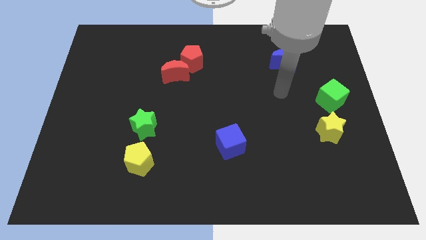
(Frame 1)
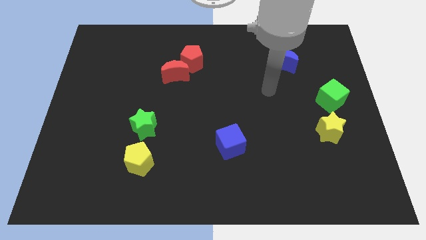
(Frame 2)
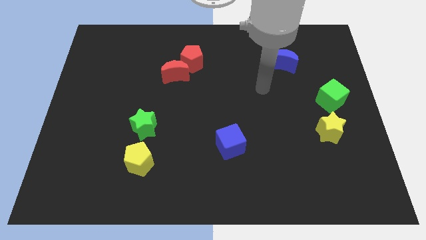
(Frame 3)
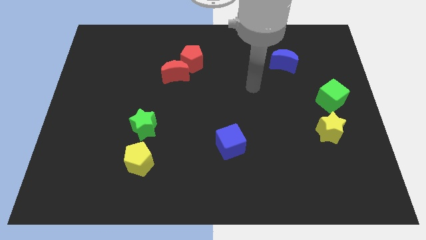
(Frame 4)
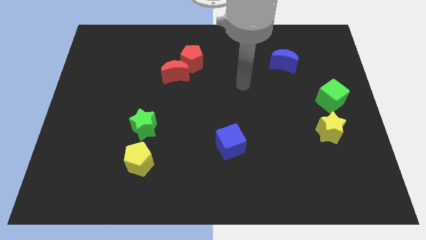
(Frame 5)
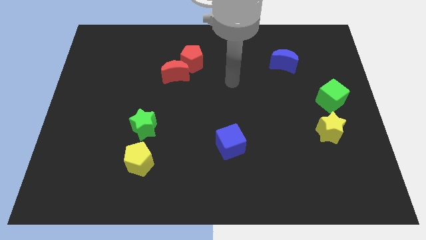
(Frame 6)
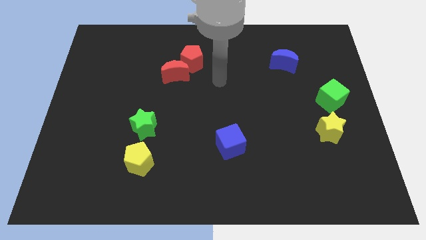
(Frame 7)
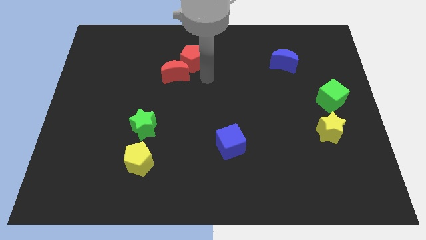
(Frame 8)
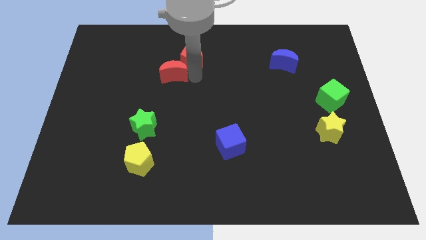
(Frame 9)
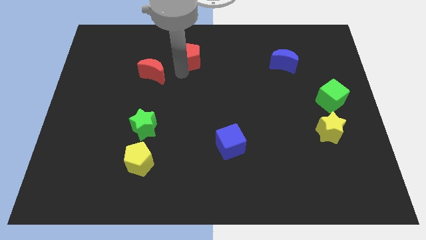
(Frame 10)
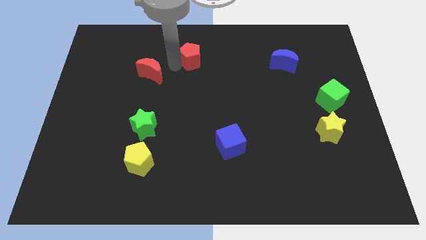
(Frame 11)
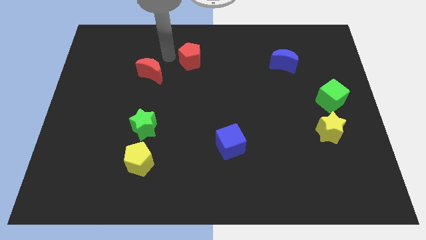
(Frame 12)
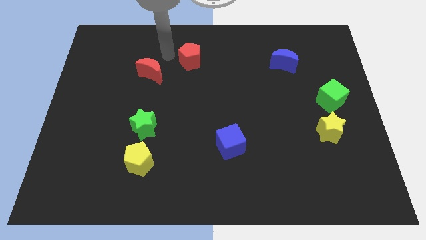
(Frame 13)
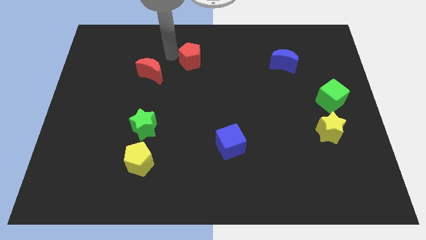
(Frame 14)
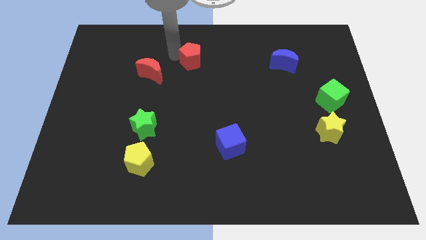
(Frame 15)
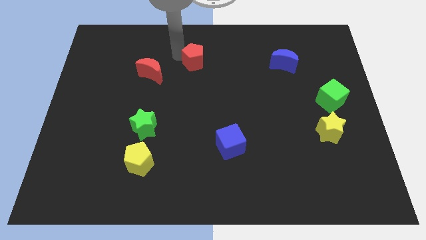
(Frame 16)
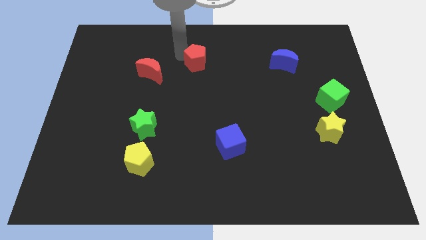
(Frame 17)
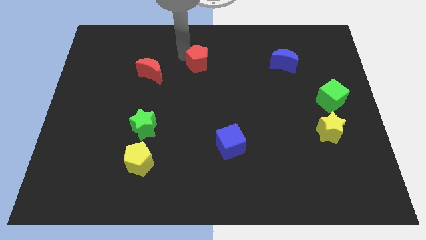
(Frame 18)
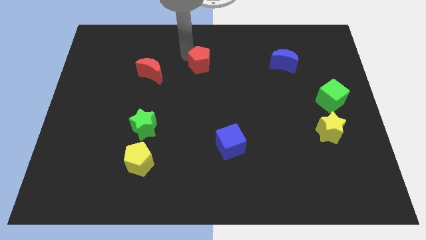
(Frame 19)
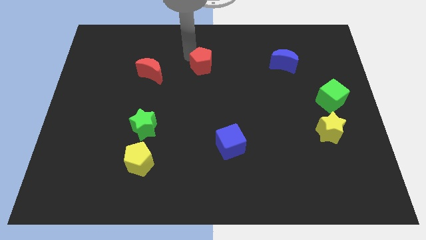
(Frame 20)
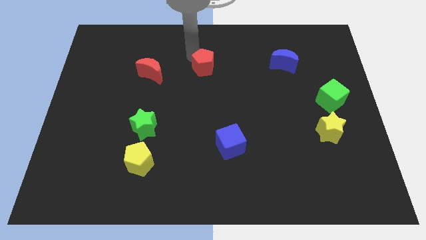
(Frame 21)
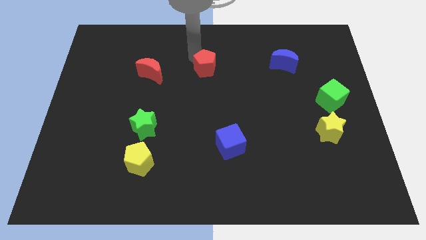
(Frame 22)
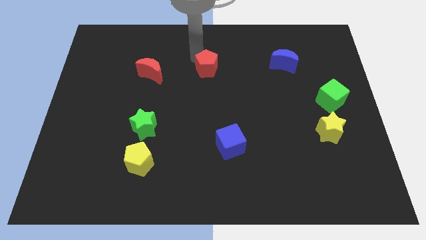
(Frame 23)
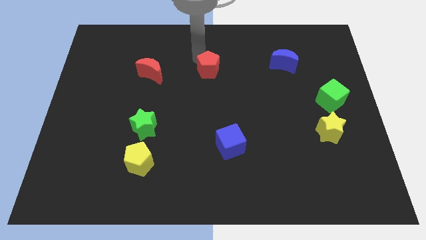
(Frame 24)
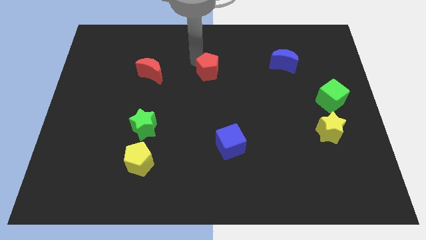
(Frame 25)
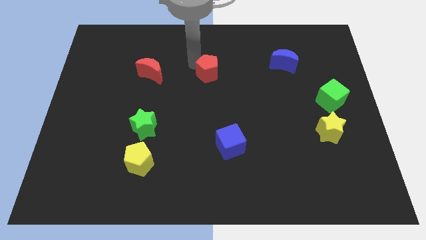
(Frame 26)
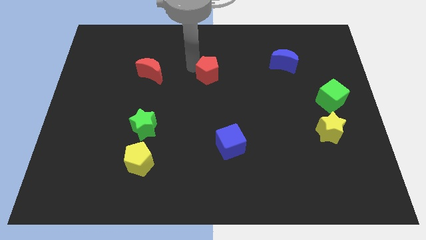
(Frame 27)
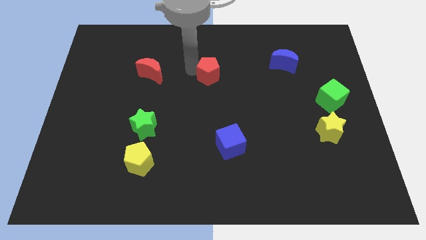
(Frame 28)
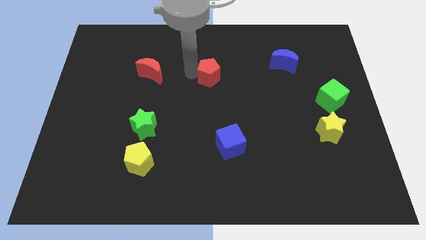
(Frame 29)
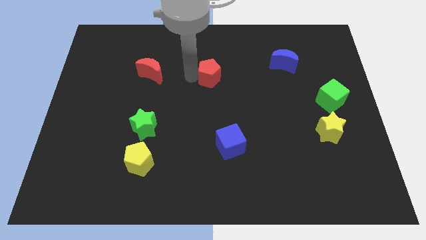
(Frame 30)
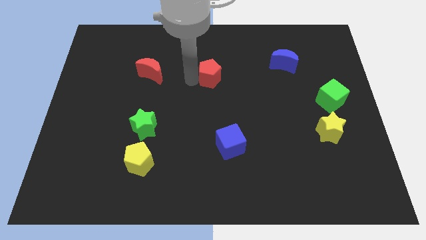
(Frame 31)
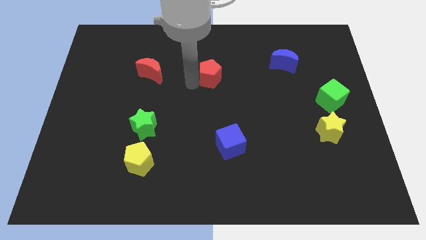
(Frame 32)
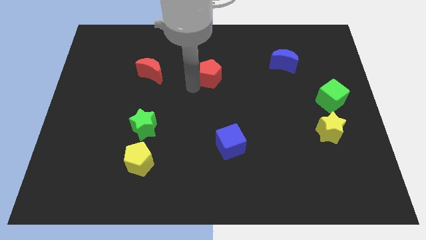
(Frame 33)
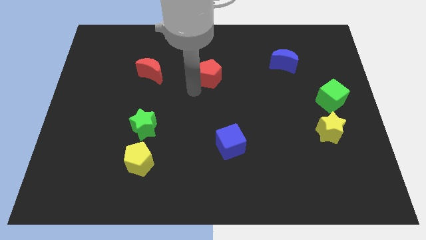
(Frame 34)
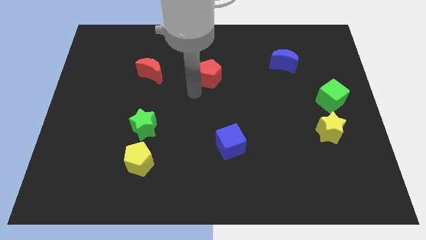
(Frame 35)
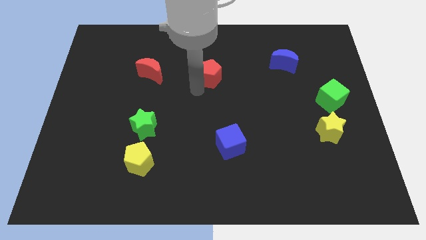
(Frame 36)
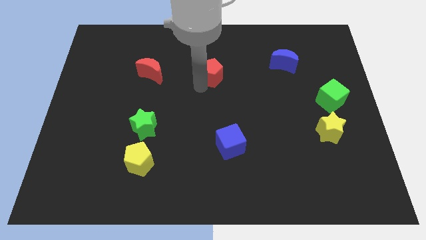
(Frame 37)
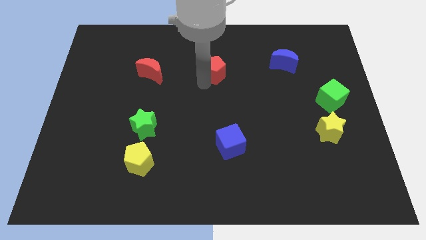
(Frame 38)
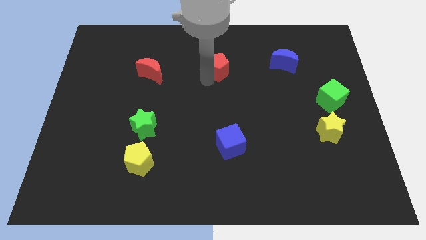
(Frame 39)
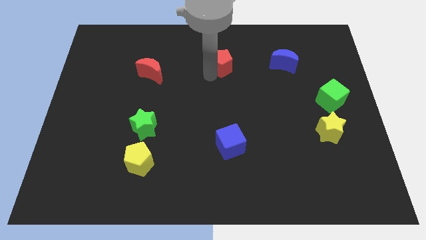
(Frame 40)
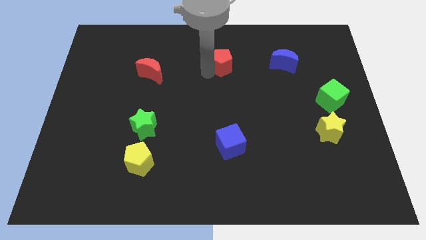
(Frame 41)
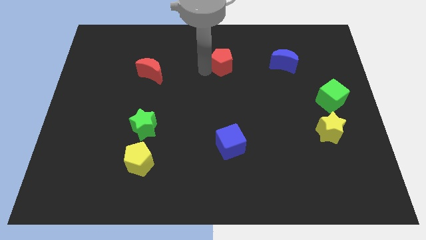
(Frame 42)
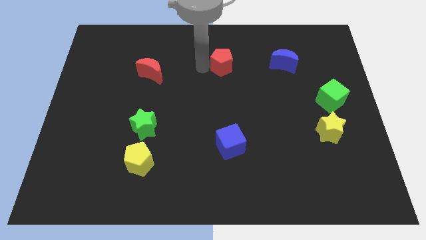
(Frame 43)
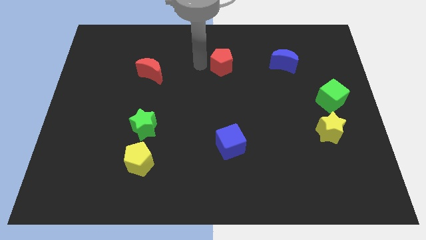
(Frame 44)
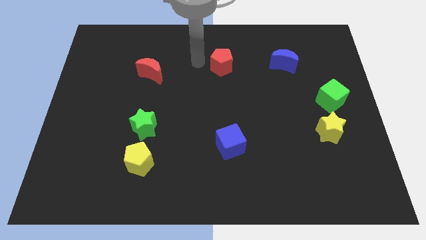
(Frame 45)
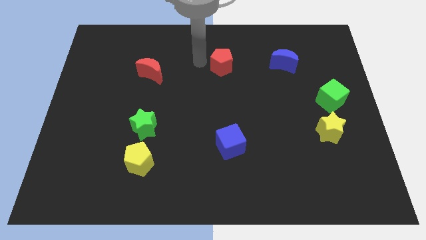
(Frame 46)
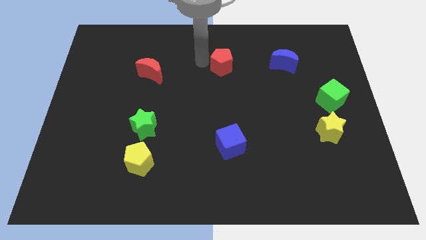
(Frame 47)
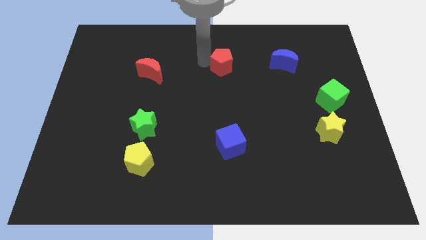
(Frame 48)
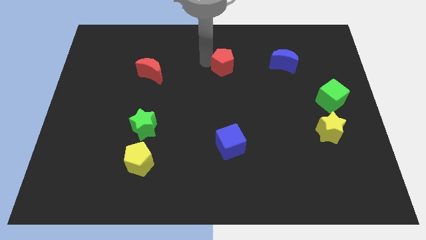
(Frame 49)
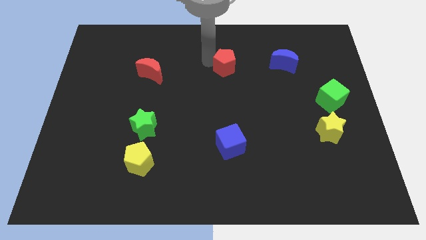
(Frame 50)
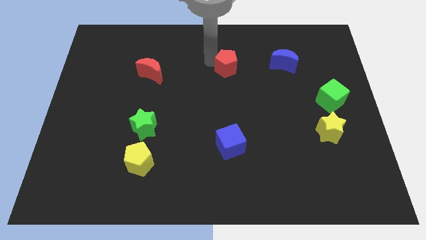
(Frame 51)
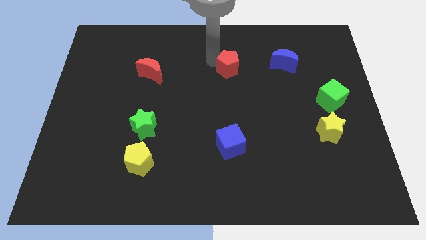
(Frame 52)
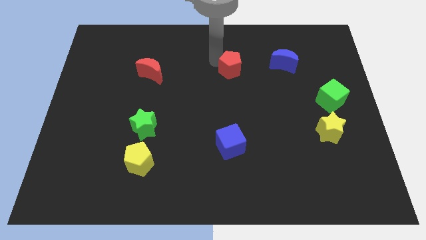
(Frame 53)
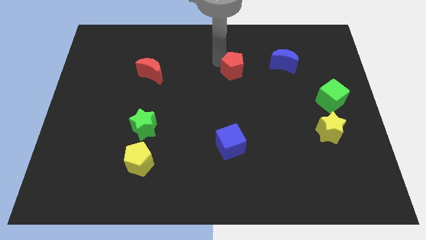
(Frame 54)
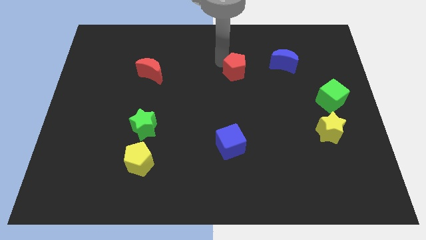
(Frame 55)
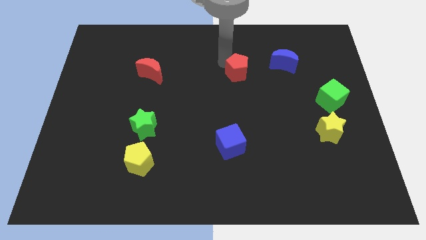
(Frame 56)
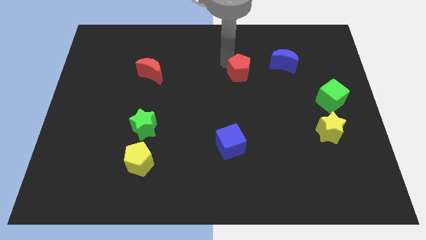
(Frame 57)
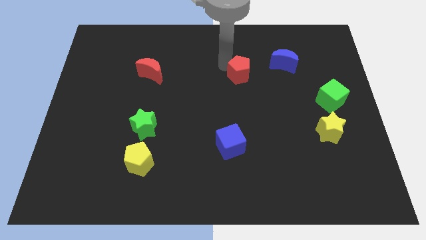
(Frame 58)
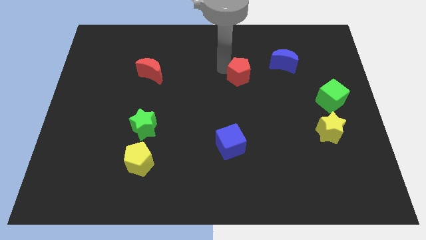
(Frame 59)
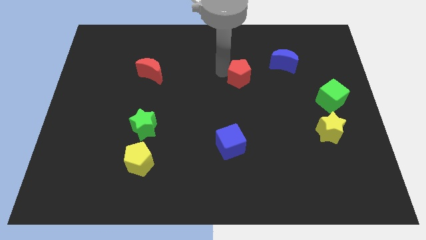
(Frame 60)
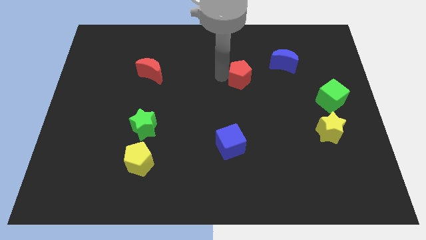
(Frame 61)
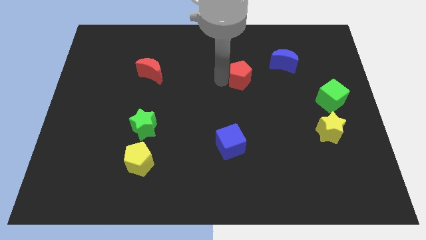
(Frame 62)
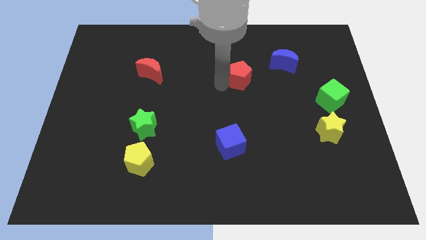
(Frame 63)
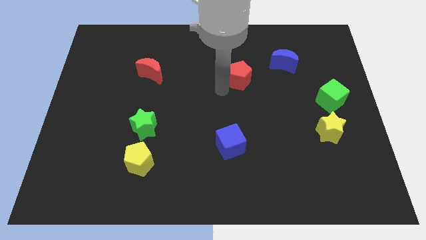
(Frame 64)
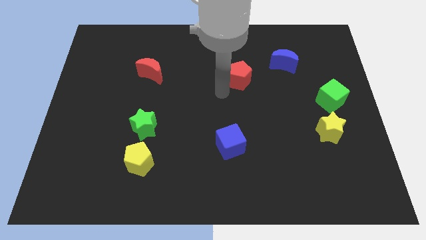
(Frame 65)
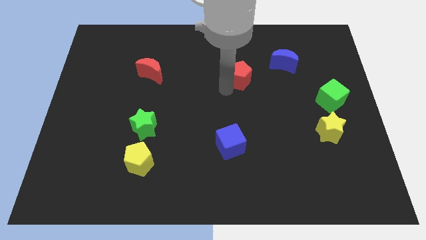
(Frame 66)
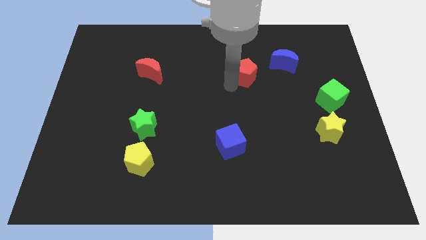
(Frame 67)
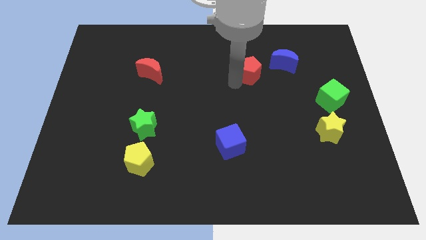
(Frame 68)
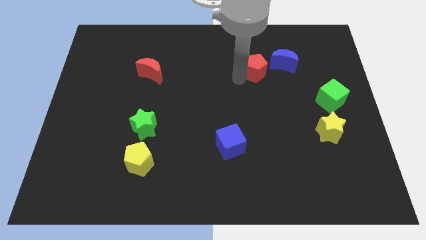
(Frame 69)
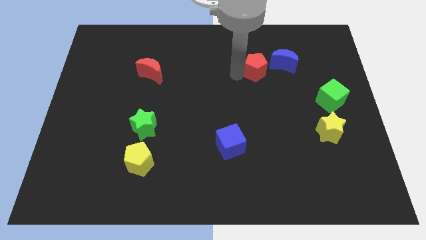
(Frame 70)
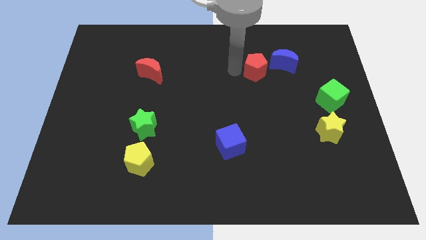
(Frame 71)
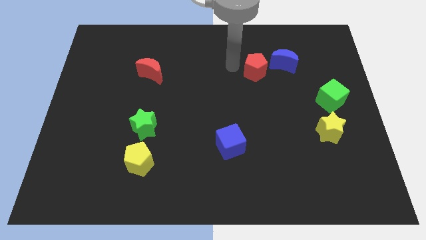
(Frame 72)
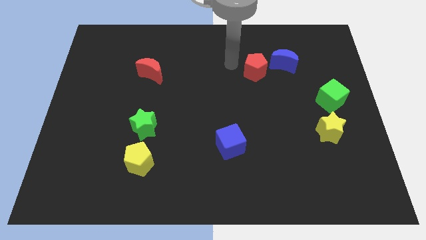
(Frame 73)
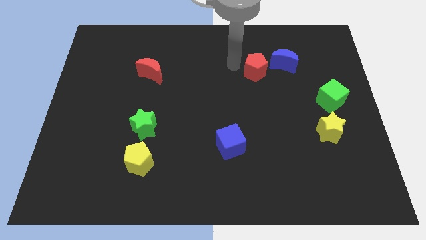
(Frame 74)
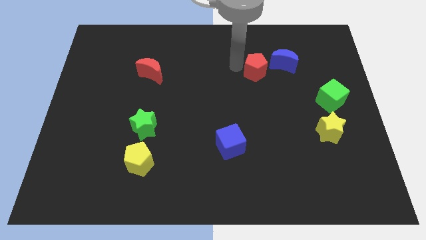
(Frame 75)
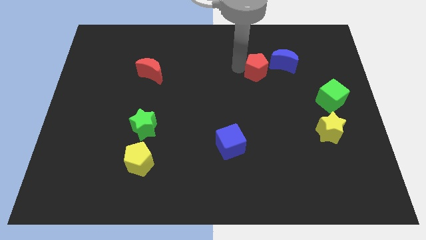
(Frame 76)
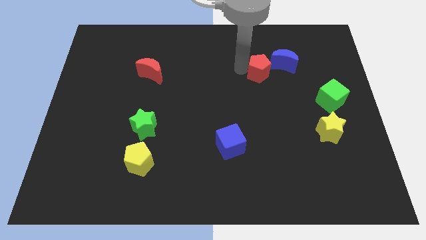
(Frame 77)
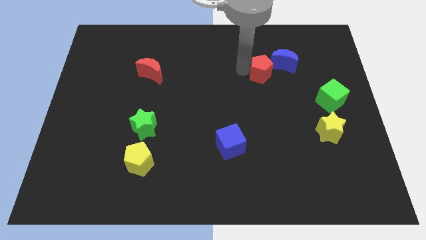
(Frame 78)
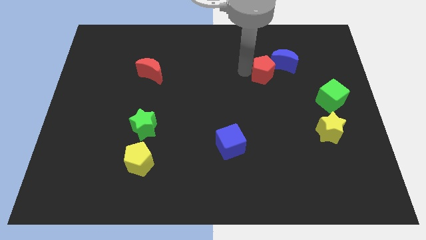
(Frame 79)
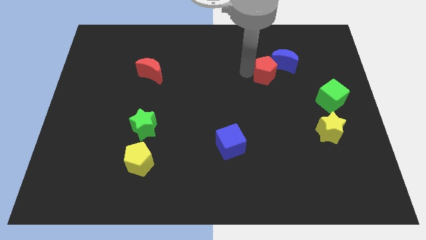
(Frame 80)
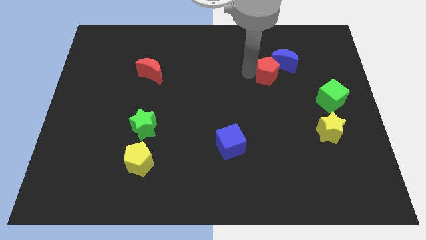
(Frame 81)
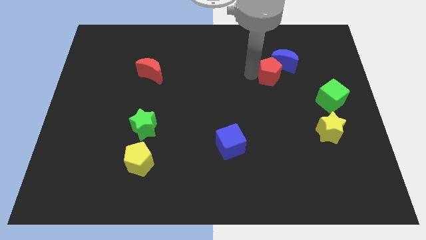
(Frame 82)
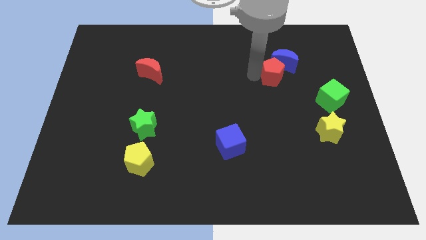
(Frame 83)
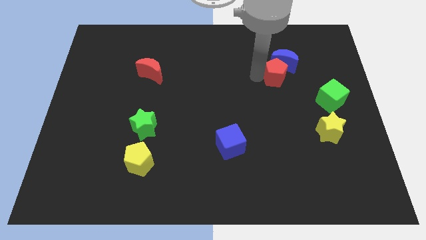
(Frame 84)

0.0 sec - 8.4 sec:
push the red pentagon right
